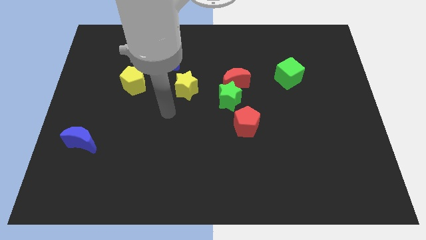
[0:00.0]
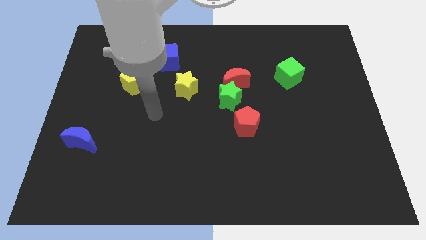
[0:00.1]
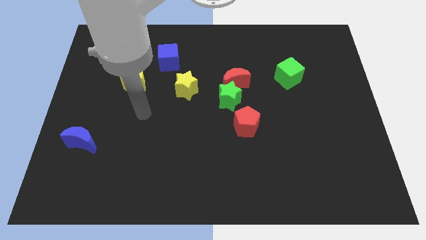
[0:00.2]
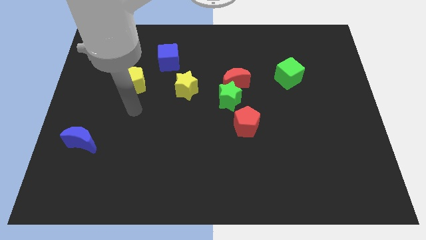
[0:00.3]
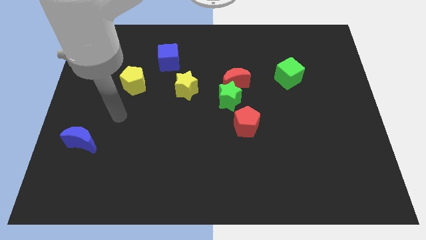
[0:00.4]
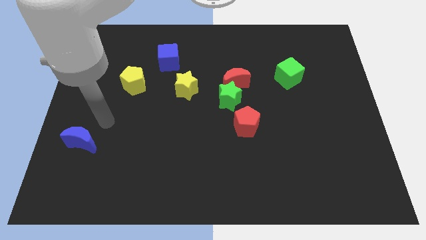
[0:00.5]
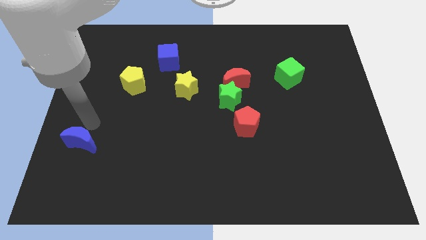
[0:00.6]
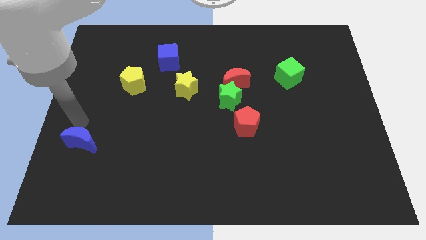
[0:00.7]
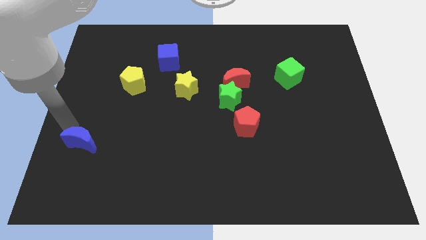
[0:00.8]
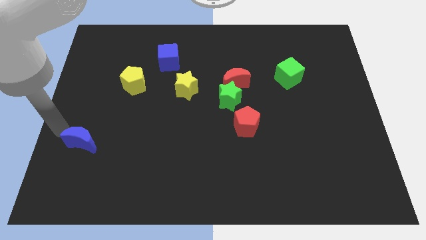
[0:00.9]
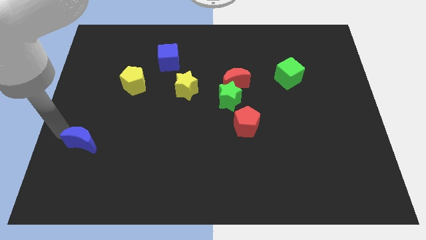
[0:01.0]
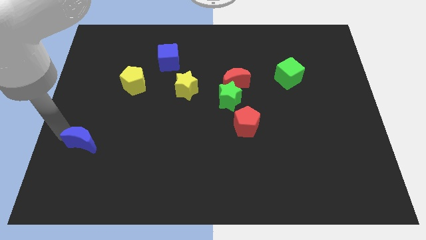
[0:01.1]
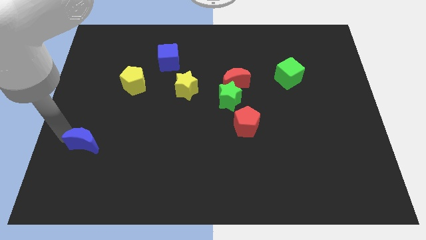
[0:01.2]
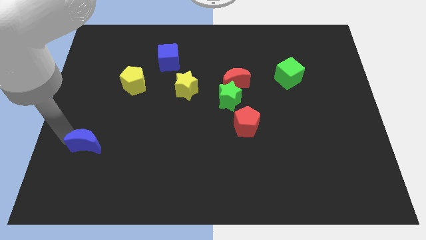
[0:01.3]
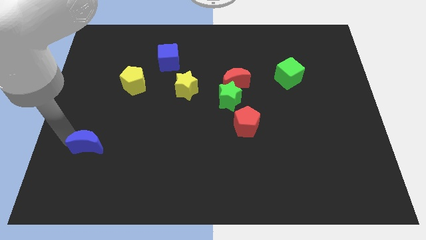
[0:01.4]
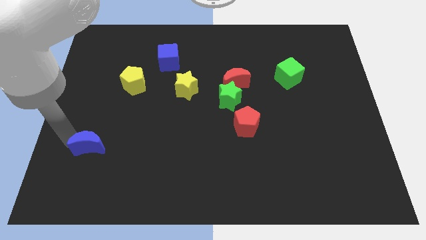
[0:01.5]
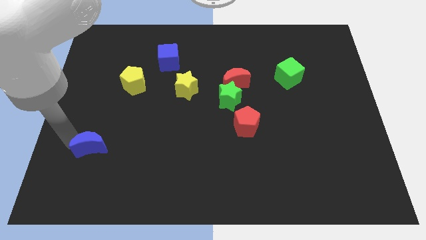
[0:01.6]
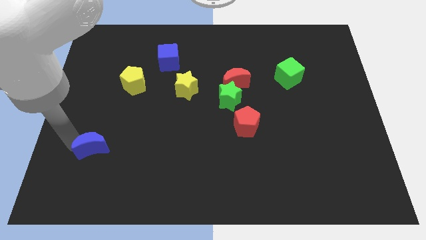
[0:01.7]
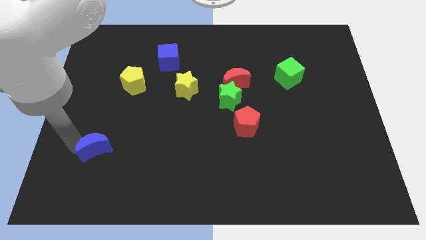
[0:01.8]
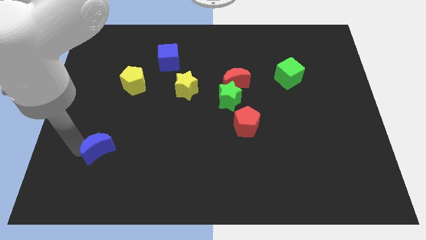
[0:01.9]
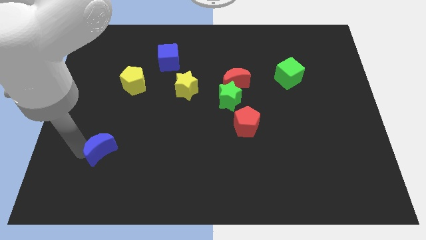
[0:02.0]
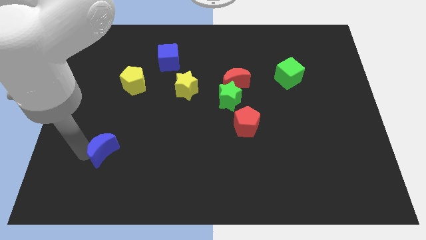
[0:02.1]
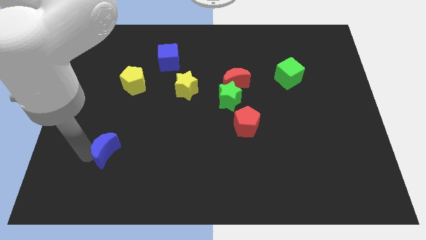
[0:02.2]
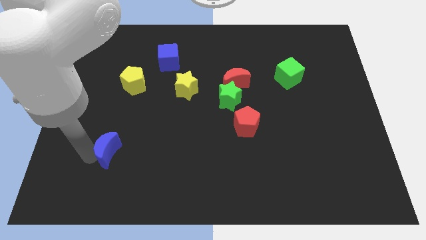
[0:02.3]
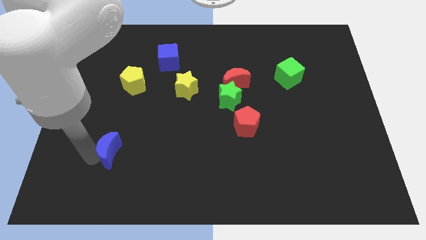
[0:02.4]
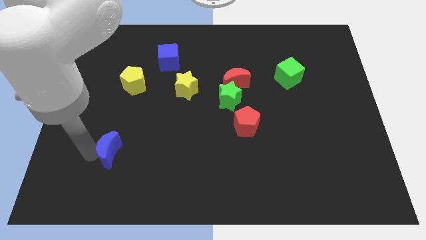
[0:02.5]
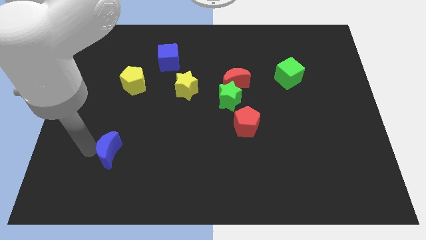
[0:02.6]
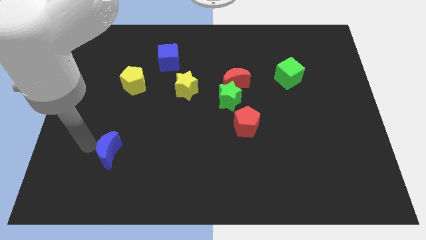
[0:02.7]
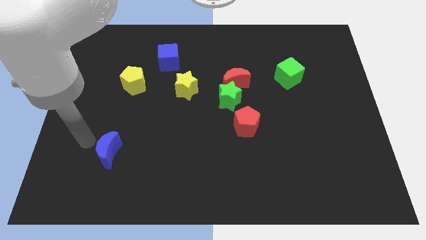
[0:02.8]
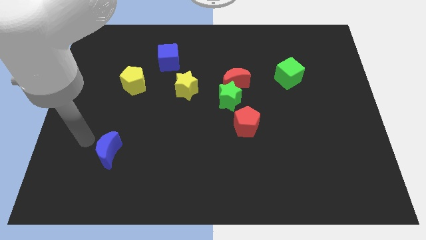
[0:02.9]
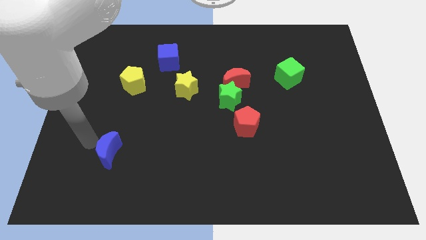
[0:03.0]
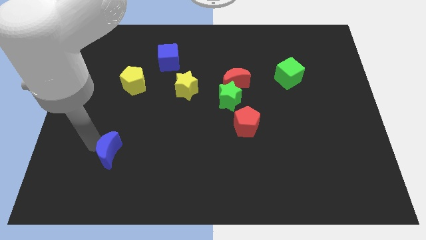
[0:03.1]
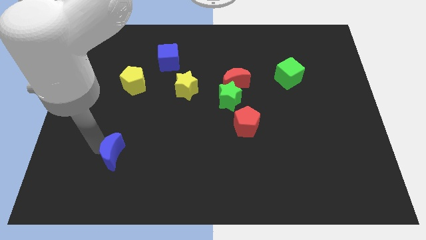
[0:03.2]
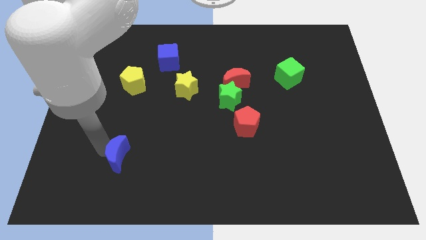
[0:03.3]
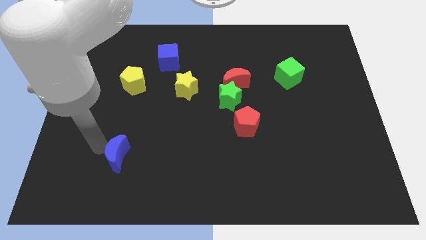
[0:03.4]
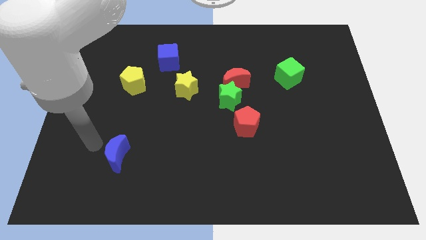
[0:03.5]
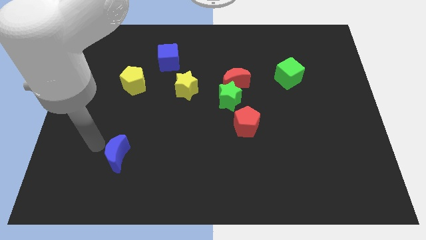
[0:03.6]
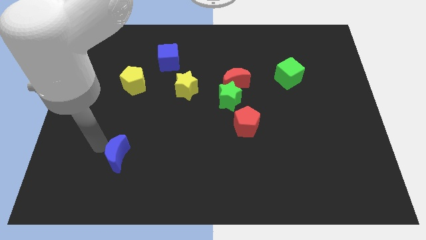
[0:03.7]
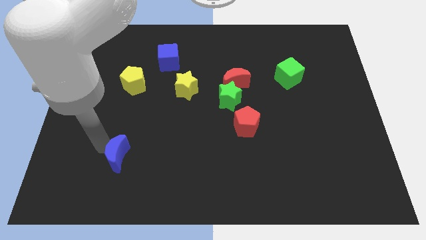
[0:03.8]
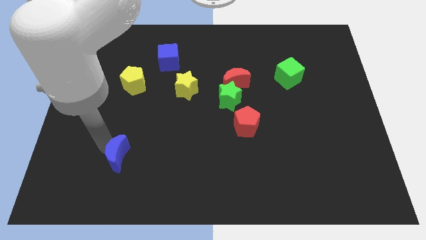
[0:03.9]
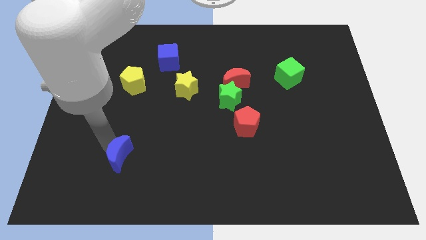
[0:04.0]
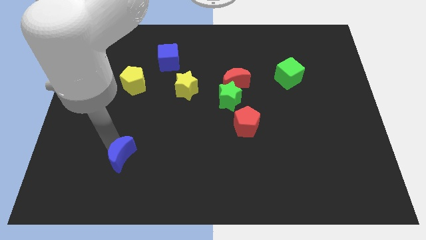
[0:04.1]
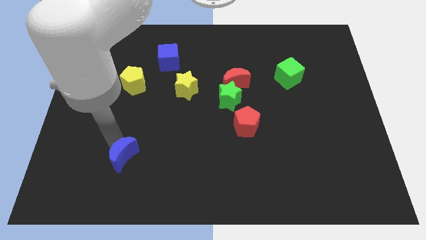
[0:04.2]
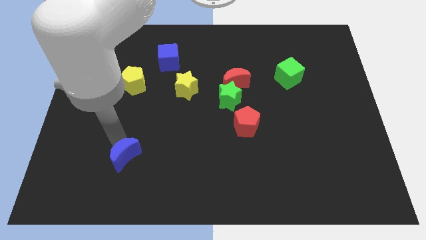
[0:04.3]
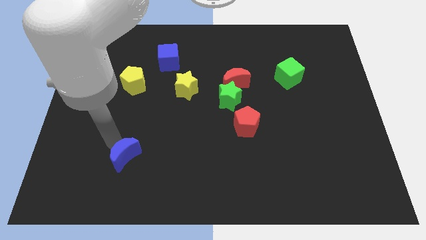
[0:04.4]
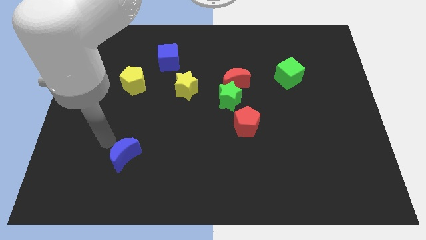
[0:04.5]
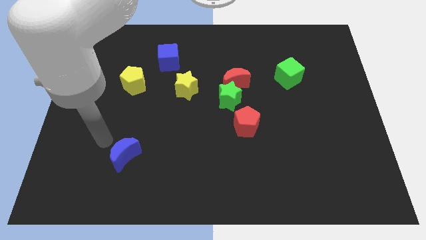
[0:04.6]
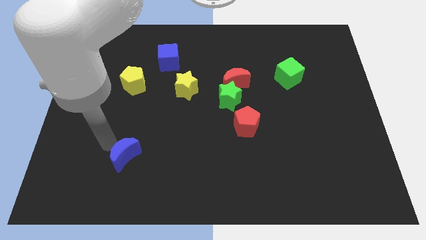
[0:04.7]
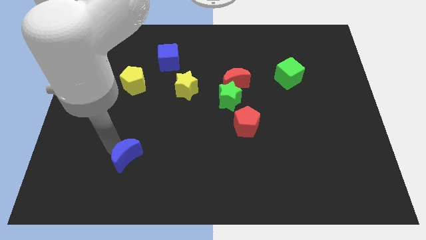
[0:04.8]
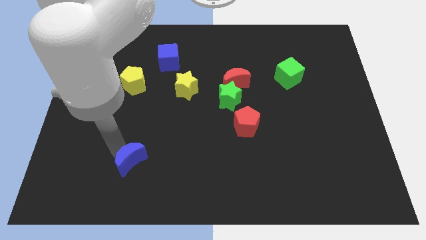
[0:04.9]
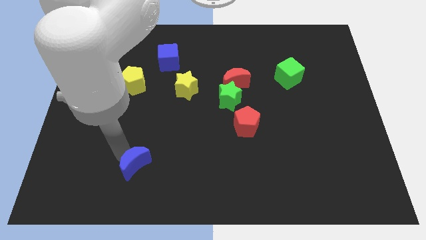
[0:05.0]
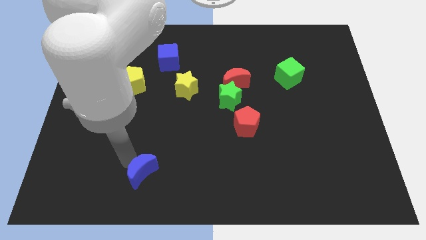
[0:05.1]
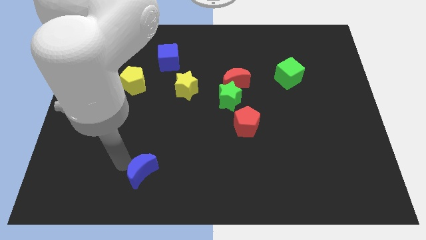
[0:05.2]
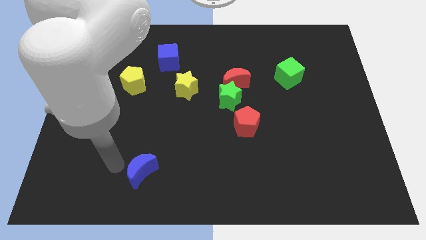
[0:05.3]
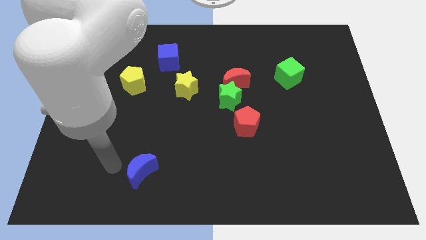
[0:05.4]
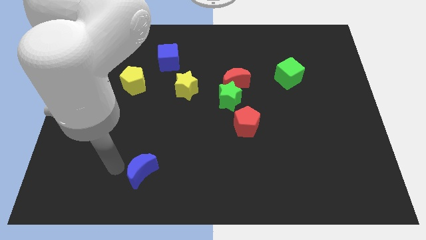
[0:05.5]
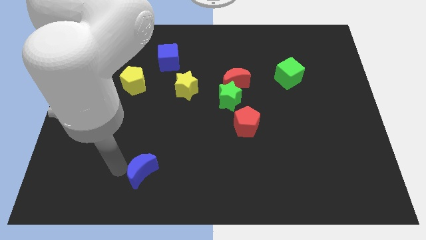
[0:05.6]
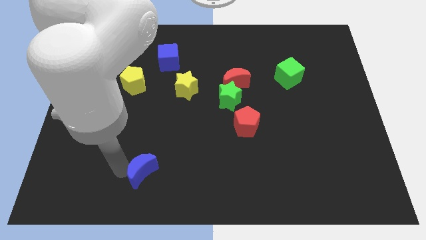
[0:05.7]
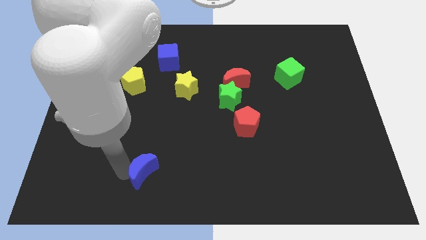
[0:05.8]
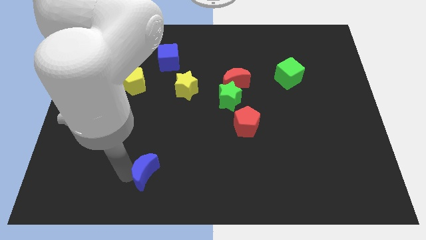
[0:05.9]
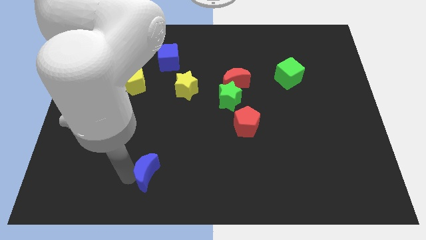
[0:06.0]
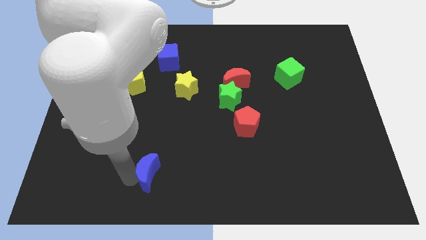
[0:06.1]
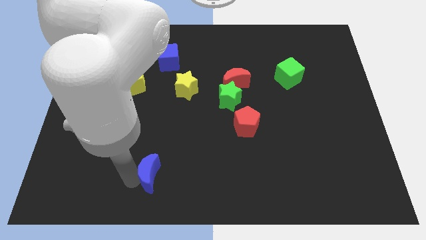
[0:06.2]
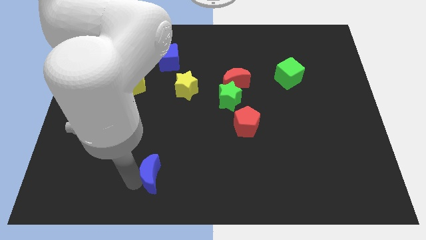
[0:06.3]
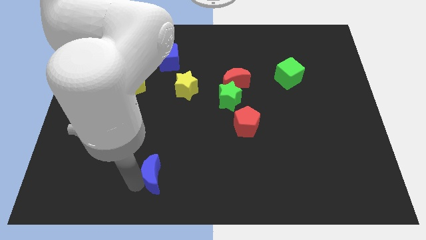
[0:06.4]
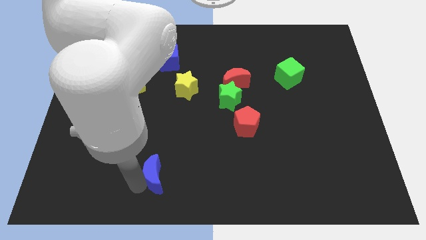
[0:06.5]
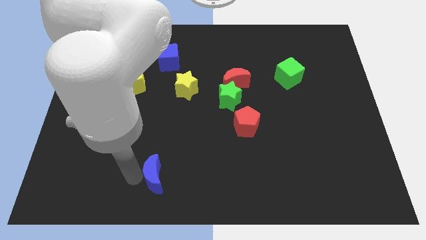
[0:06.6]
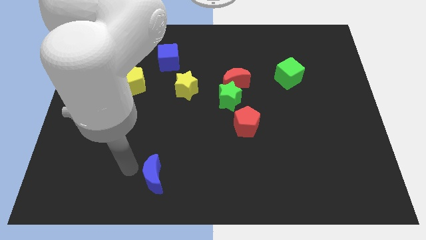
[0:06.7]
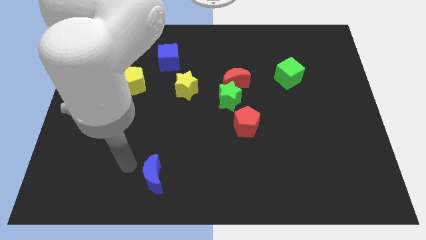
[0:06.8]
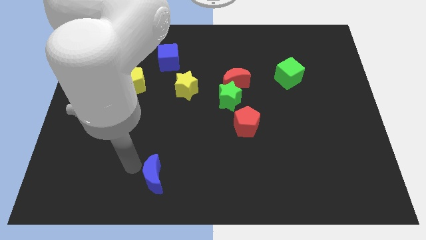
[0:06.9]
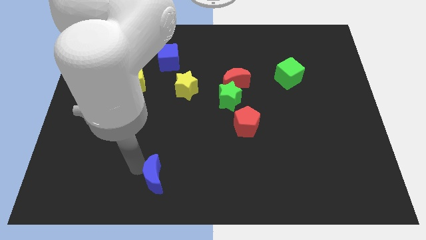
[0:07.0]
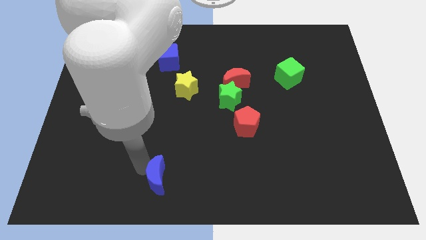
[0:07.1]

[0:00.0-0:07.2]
push the blue moon to the bottom
